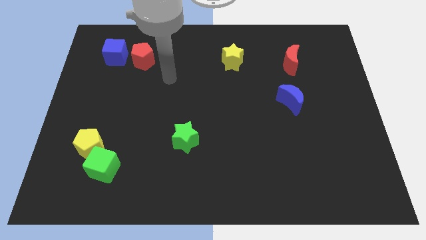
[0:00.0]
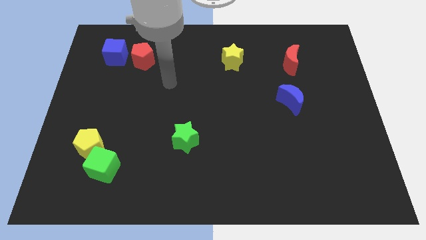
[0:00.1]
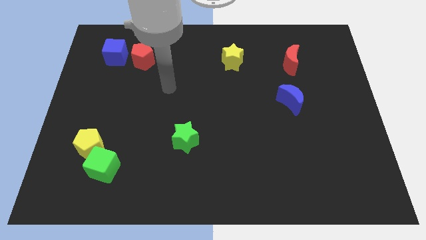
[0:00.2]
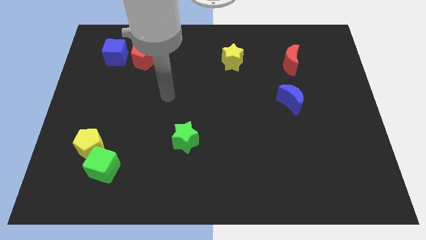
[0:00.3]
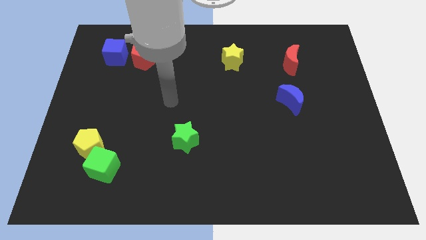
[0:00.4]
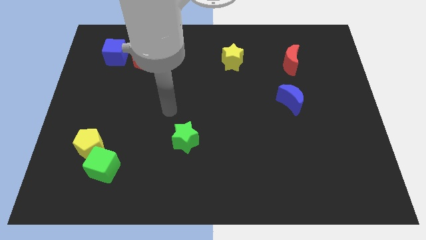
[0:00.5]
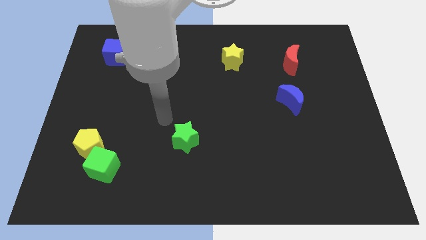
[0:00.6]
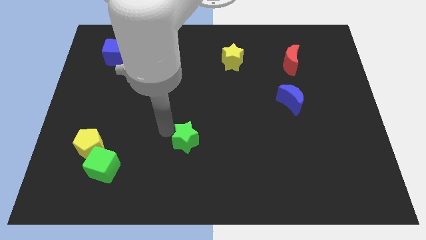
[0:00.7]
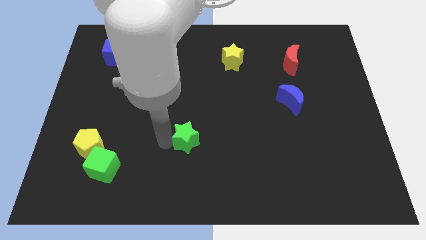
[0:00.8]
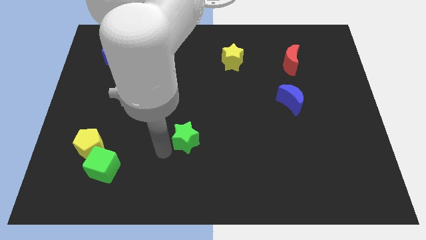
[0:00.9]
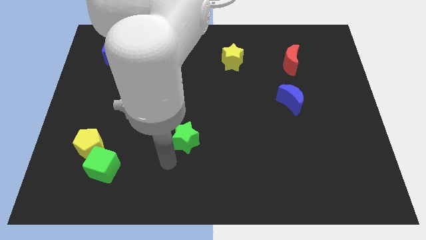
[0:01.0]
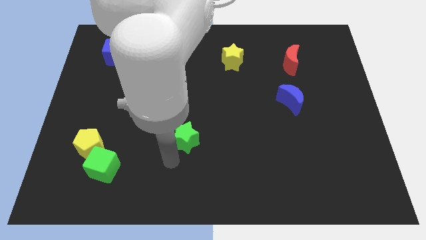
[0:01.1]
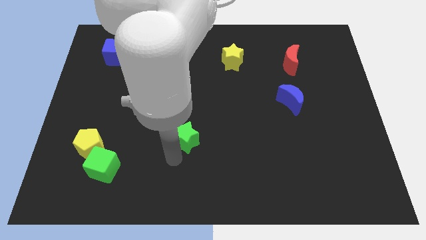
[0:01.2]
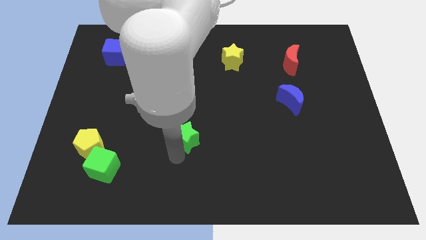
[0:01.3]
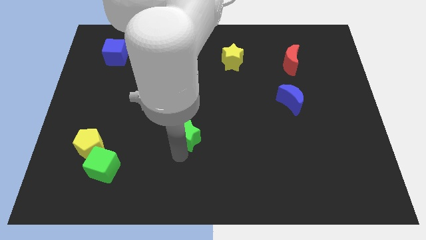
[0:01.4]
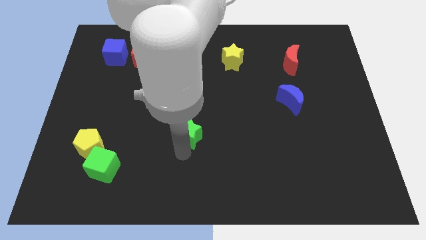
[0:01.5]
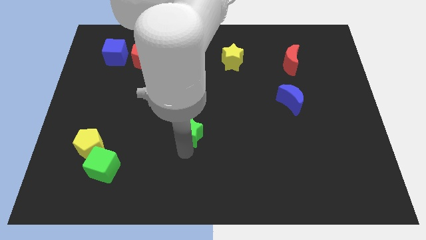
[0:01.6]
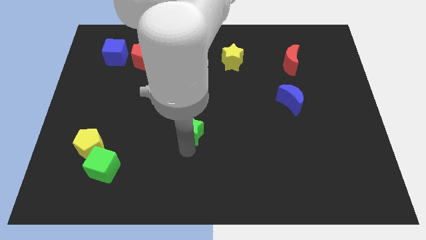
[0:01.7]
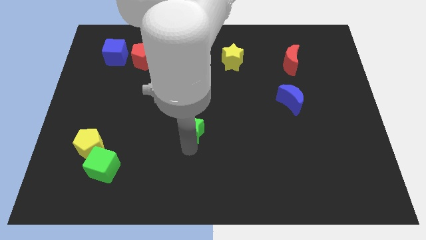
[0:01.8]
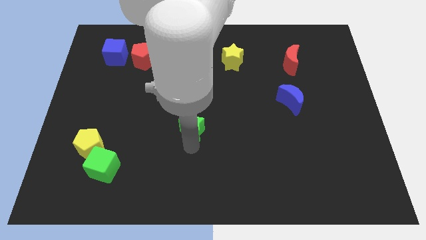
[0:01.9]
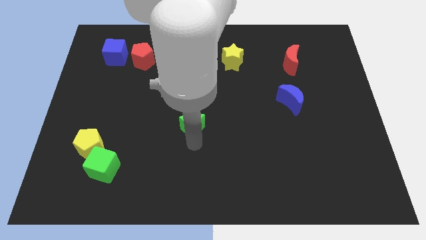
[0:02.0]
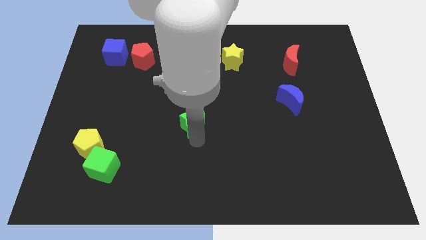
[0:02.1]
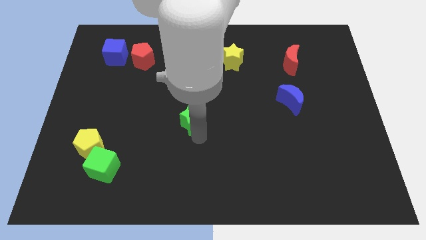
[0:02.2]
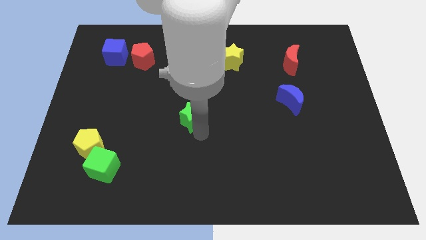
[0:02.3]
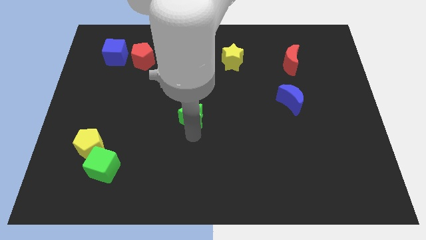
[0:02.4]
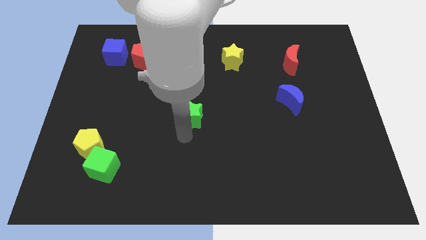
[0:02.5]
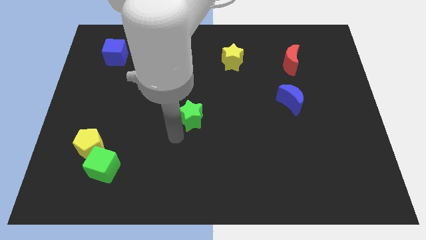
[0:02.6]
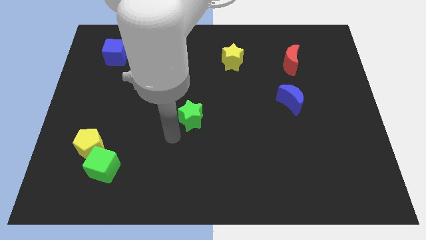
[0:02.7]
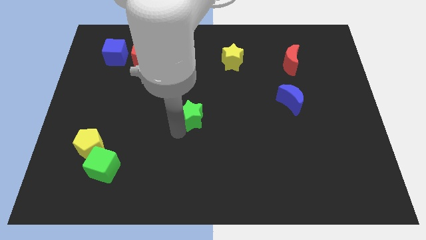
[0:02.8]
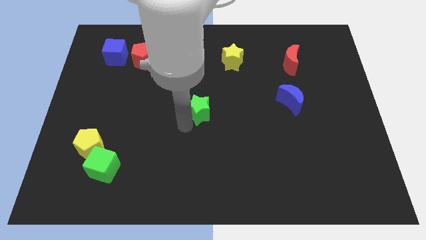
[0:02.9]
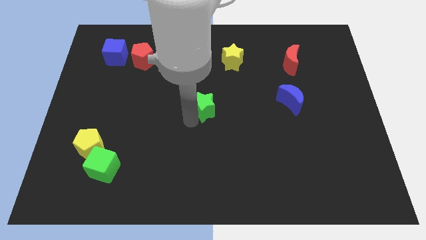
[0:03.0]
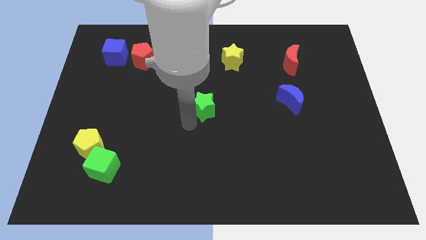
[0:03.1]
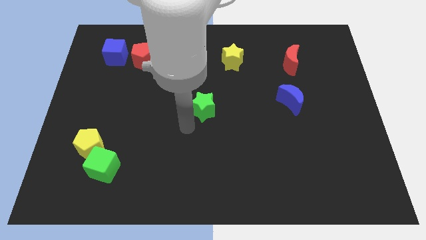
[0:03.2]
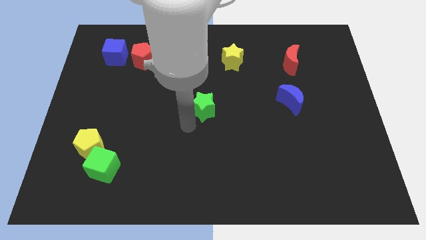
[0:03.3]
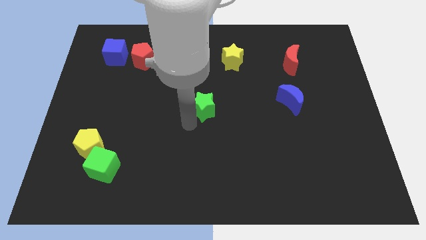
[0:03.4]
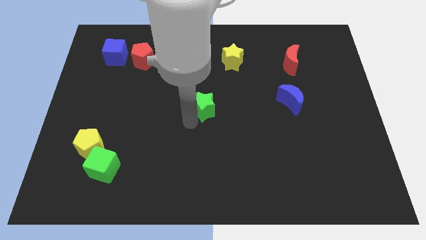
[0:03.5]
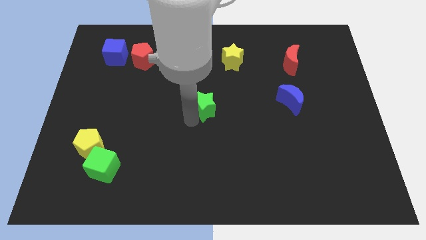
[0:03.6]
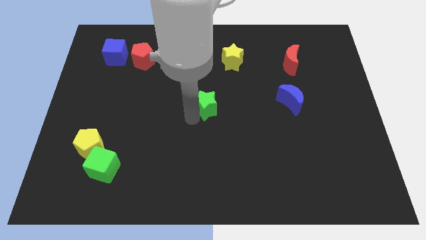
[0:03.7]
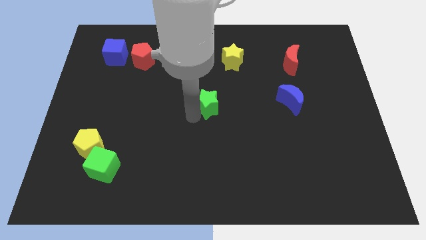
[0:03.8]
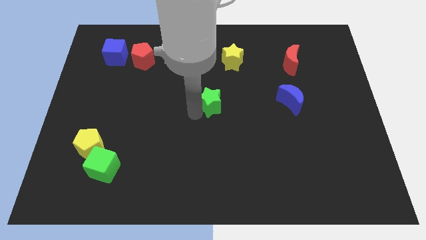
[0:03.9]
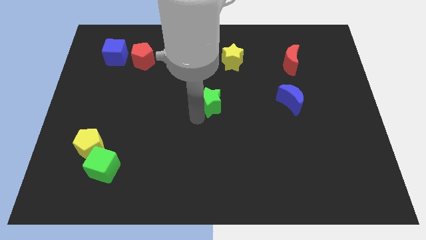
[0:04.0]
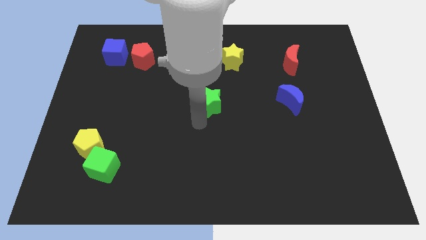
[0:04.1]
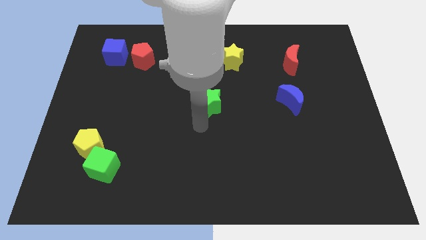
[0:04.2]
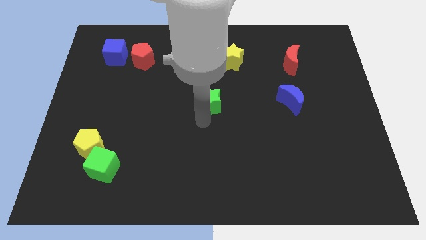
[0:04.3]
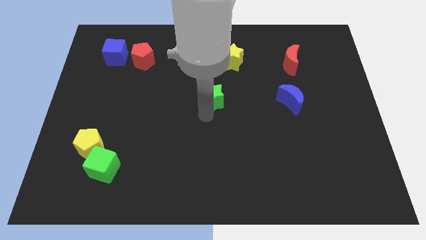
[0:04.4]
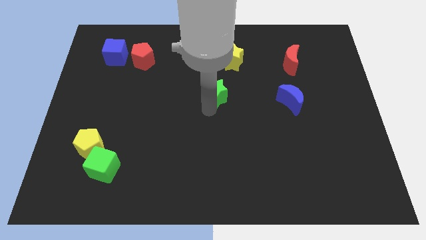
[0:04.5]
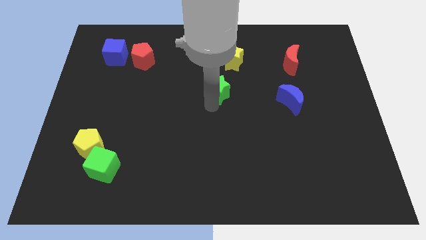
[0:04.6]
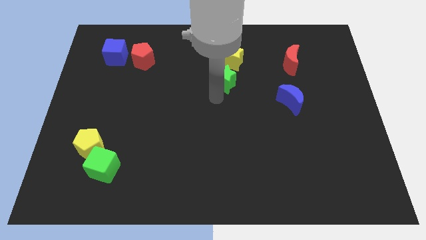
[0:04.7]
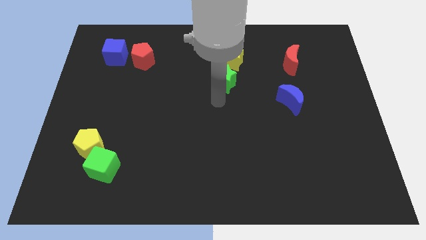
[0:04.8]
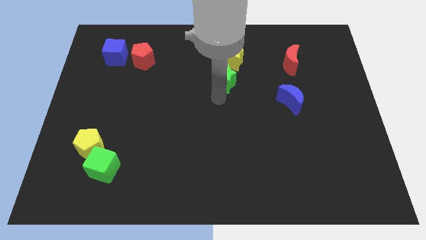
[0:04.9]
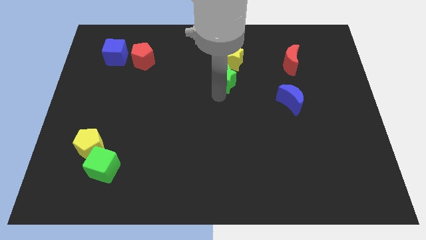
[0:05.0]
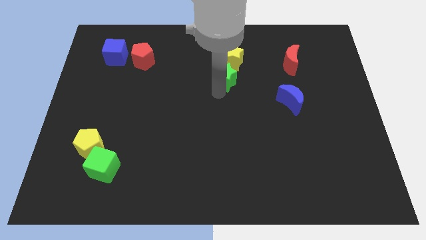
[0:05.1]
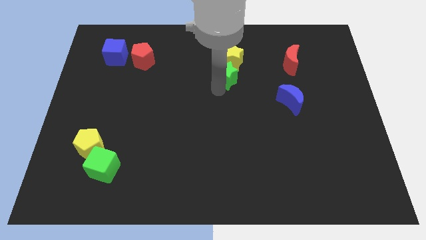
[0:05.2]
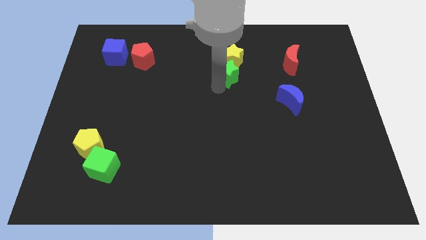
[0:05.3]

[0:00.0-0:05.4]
slide the green star to the yellow star

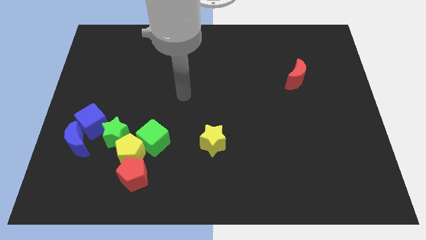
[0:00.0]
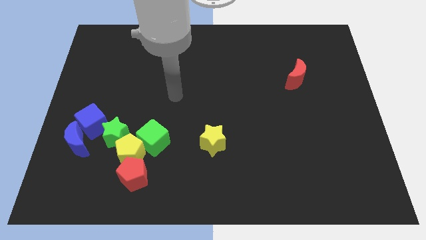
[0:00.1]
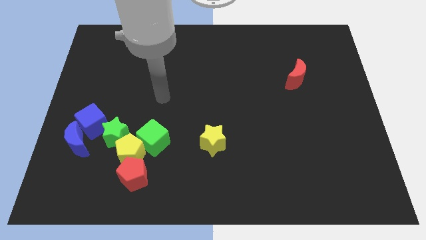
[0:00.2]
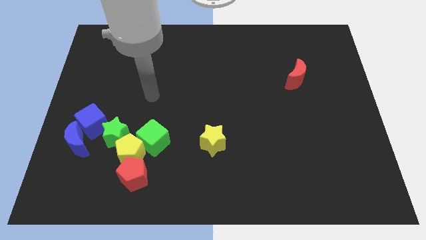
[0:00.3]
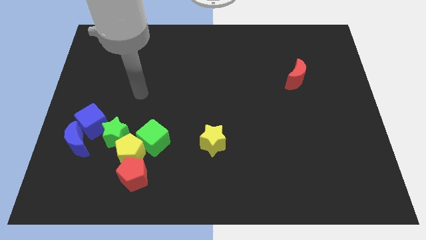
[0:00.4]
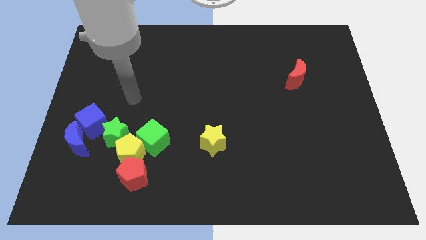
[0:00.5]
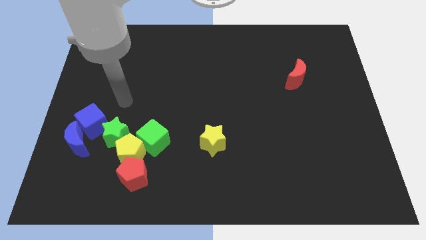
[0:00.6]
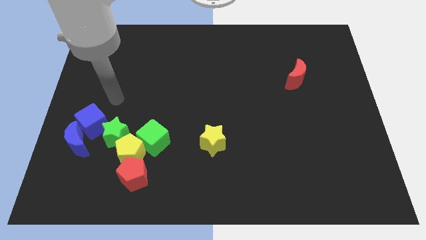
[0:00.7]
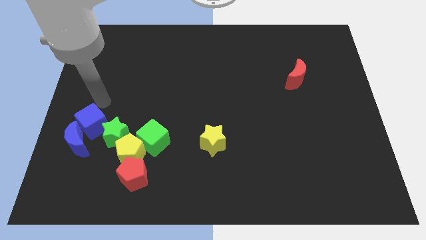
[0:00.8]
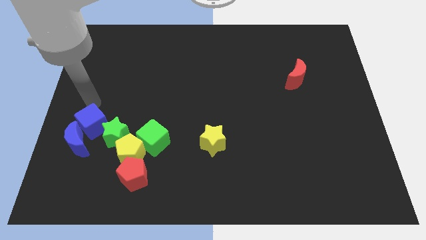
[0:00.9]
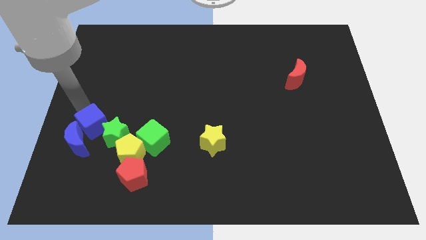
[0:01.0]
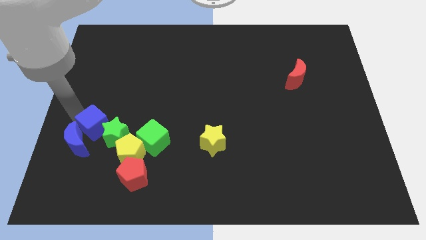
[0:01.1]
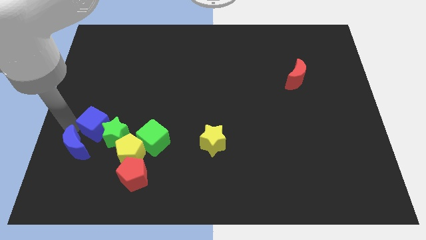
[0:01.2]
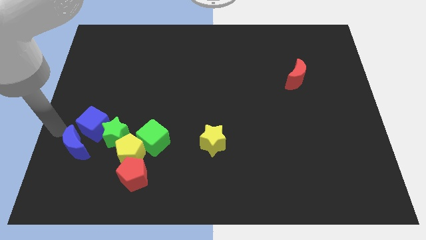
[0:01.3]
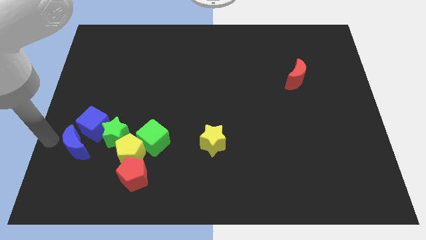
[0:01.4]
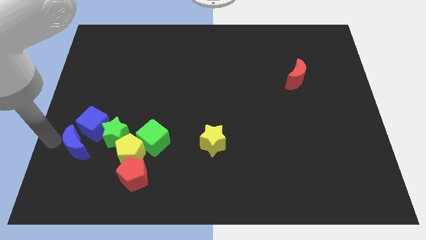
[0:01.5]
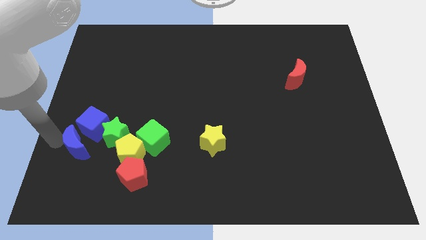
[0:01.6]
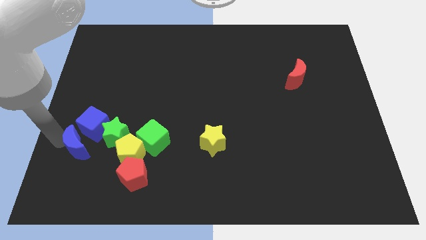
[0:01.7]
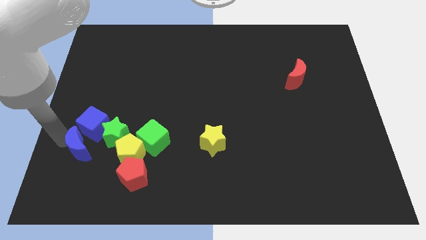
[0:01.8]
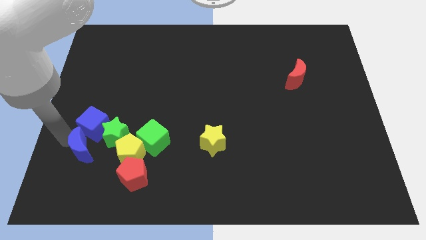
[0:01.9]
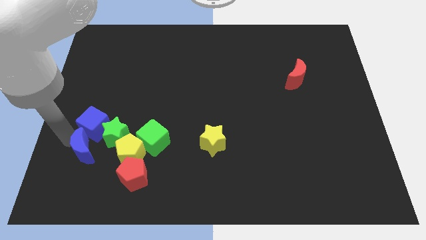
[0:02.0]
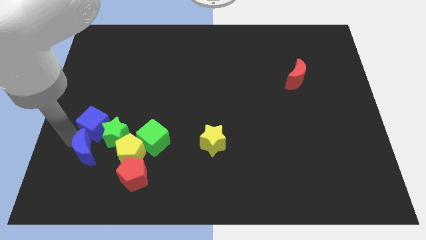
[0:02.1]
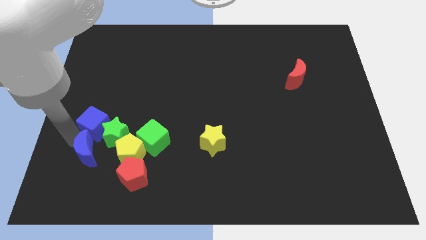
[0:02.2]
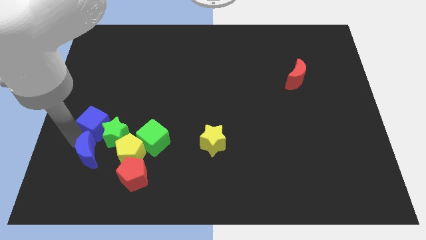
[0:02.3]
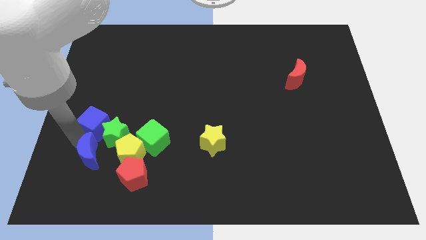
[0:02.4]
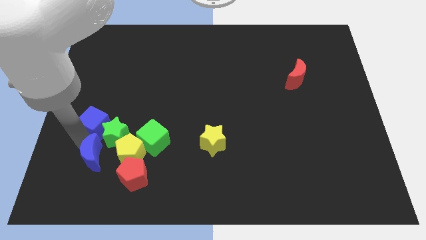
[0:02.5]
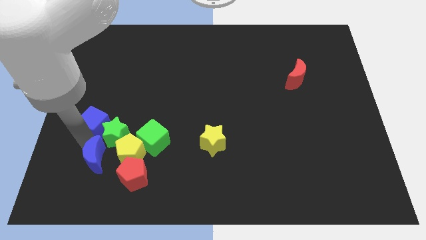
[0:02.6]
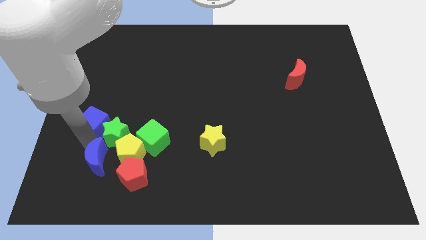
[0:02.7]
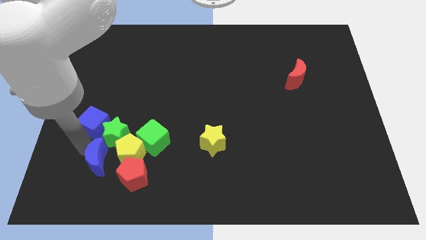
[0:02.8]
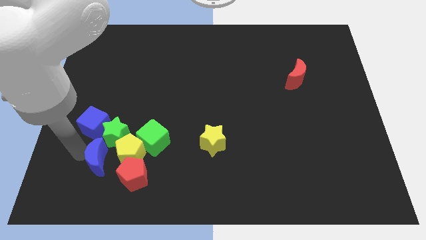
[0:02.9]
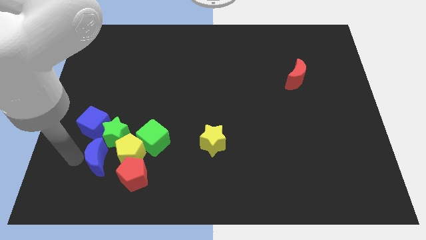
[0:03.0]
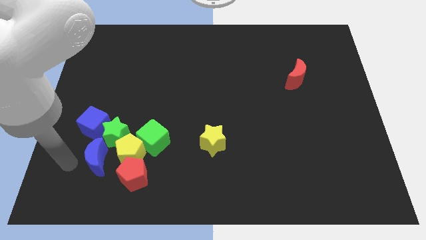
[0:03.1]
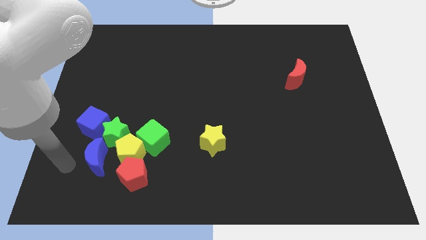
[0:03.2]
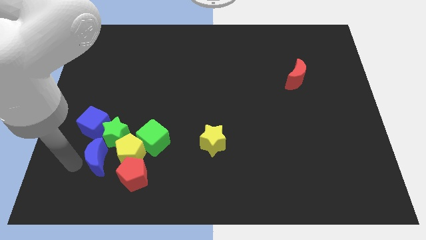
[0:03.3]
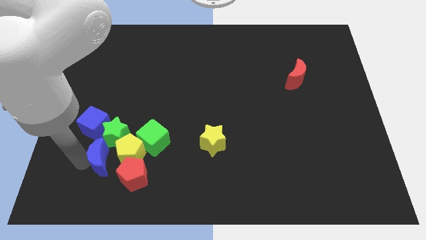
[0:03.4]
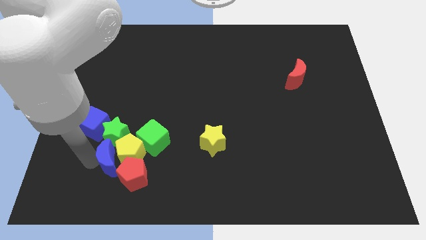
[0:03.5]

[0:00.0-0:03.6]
push the blue moon towards the yellow pentagon
